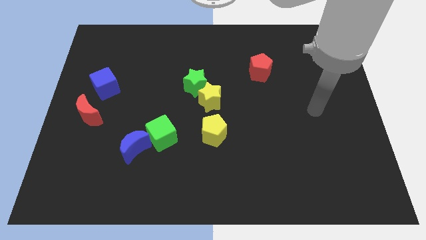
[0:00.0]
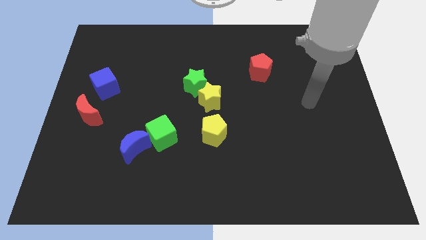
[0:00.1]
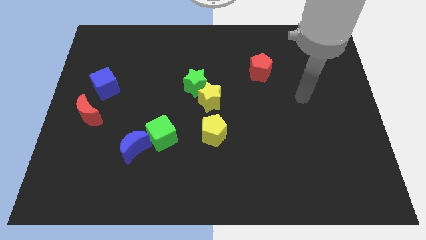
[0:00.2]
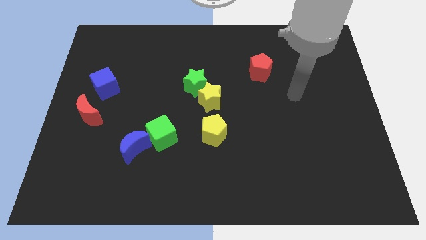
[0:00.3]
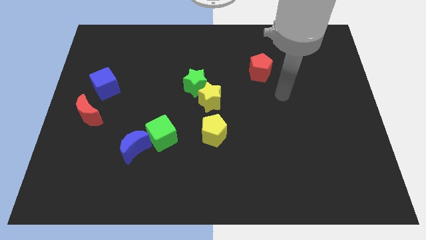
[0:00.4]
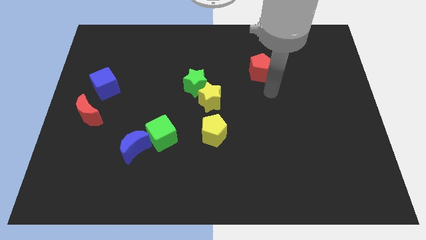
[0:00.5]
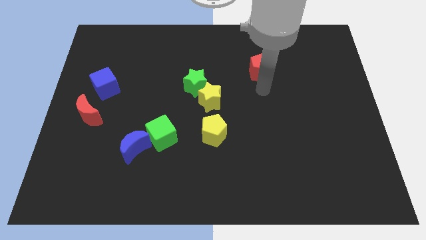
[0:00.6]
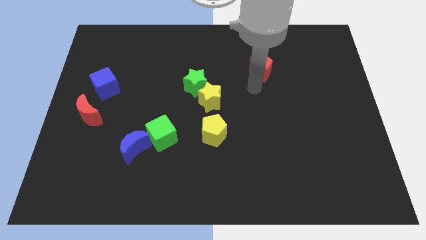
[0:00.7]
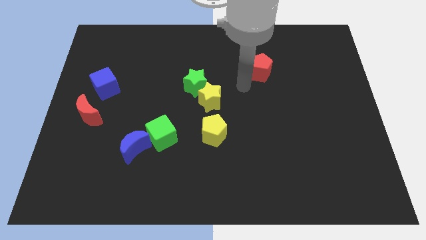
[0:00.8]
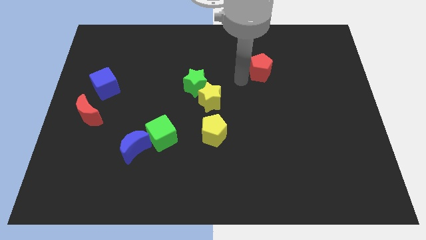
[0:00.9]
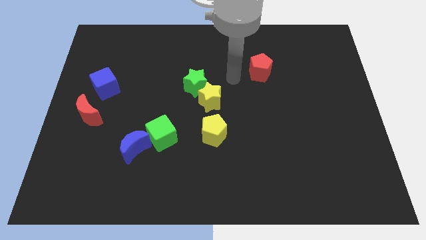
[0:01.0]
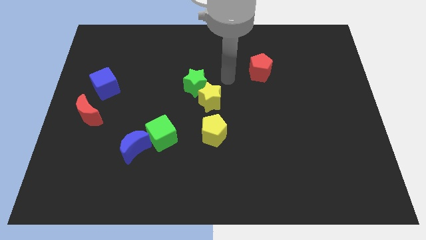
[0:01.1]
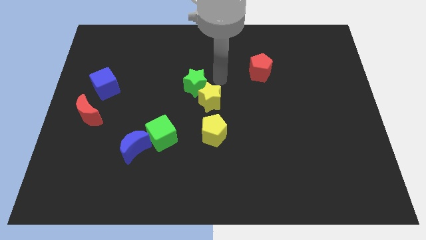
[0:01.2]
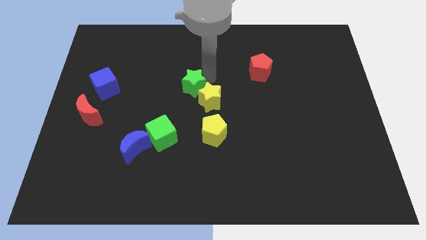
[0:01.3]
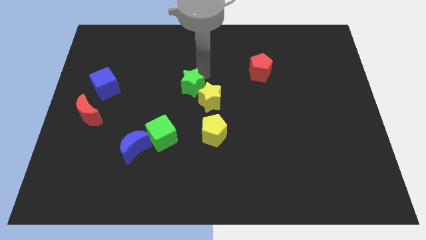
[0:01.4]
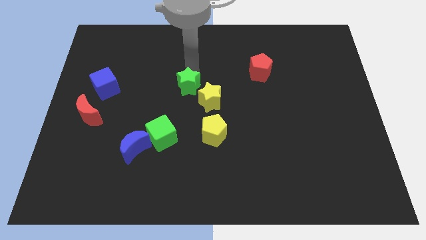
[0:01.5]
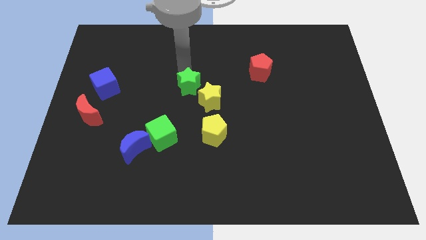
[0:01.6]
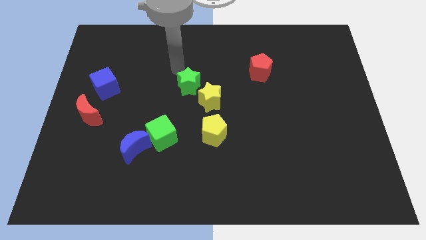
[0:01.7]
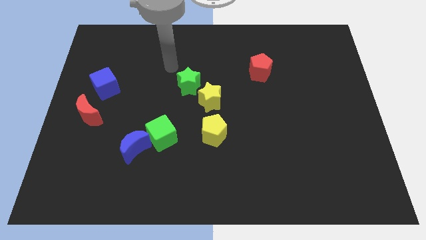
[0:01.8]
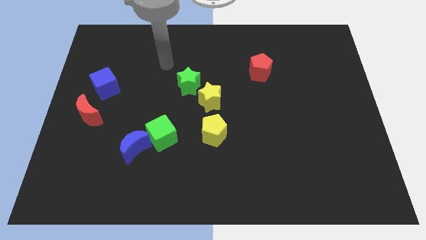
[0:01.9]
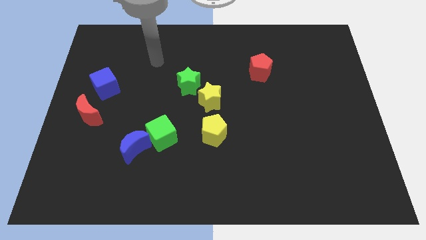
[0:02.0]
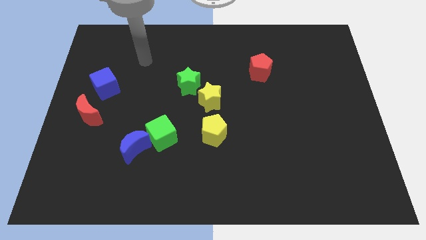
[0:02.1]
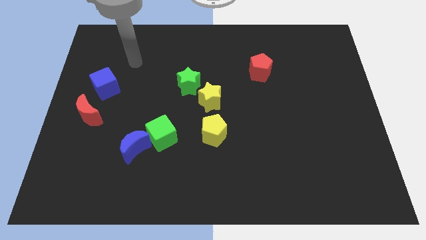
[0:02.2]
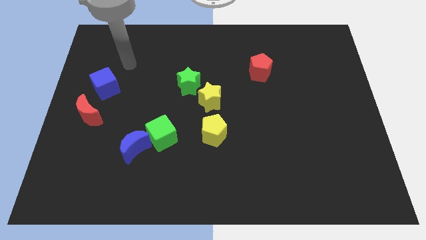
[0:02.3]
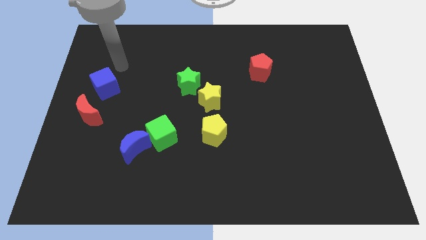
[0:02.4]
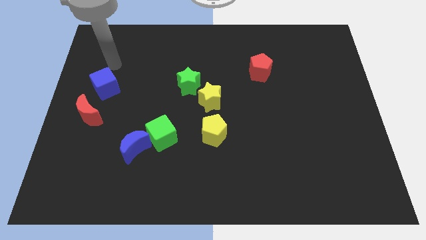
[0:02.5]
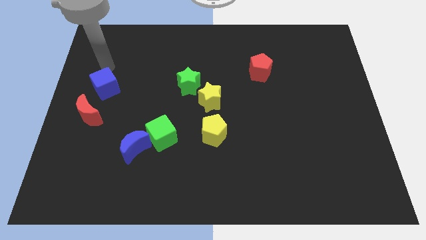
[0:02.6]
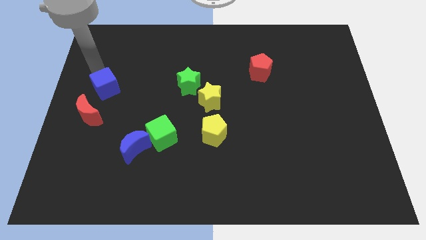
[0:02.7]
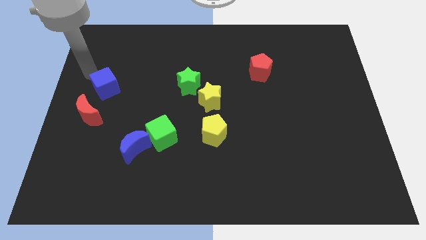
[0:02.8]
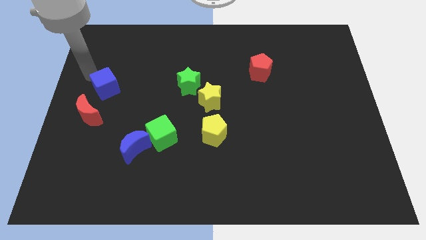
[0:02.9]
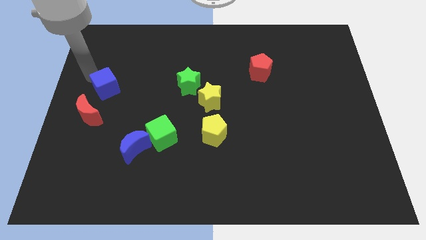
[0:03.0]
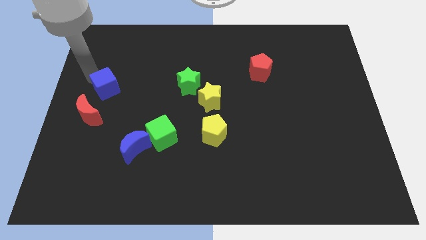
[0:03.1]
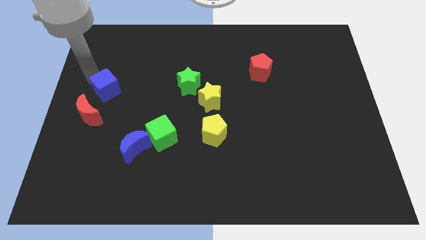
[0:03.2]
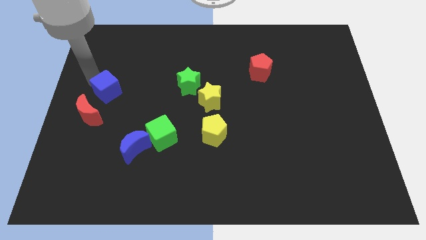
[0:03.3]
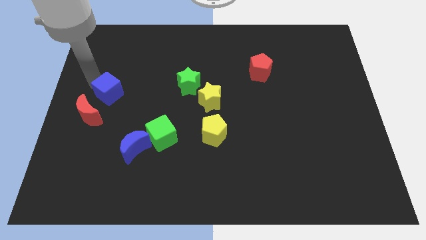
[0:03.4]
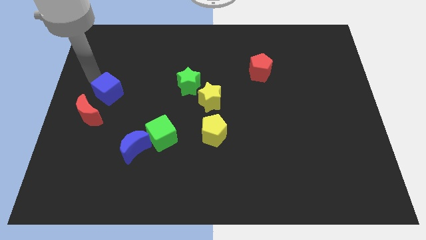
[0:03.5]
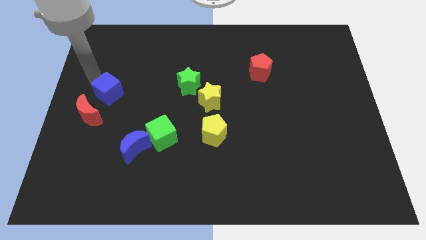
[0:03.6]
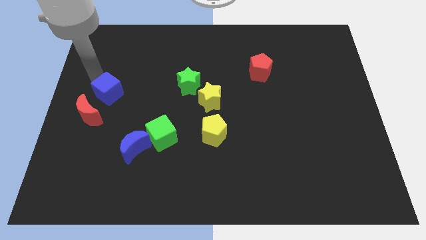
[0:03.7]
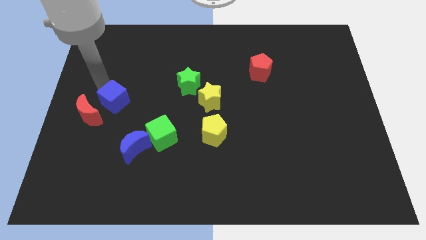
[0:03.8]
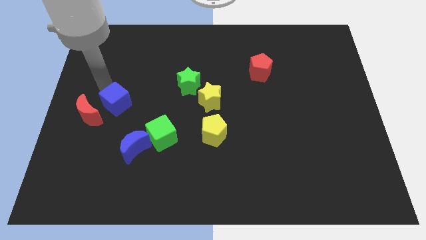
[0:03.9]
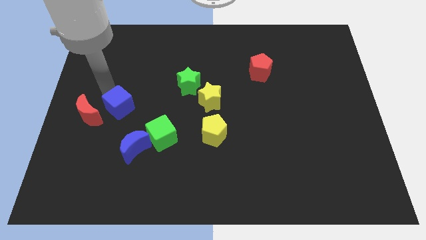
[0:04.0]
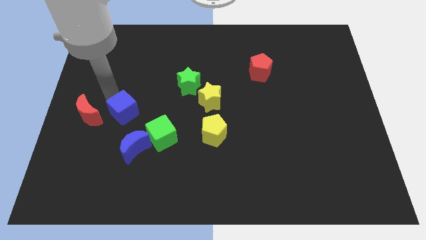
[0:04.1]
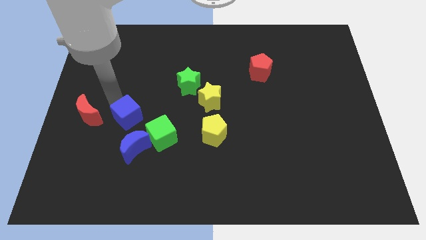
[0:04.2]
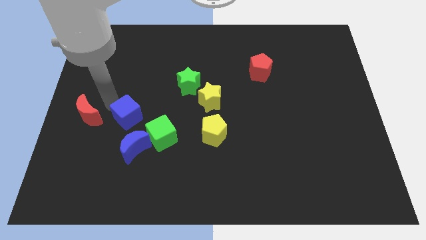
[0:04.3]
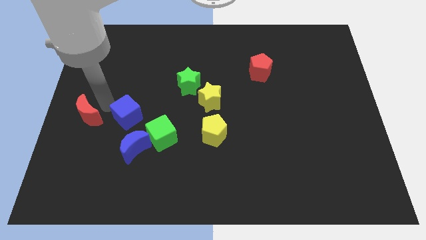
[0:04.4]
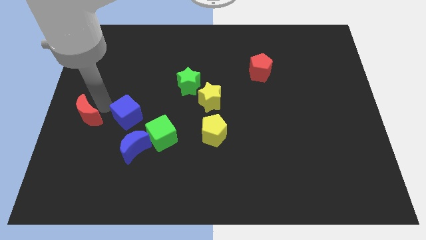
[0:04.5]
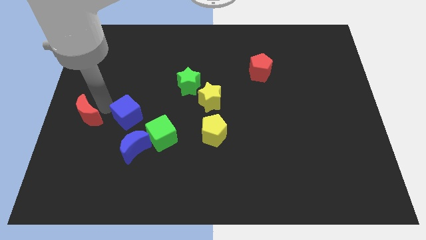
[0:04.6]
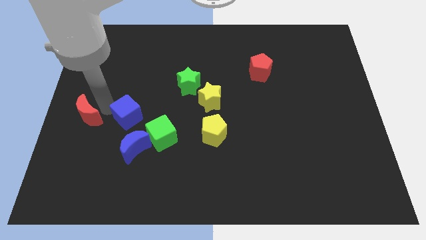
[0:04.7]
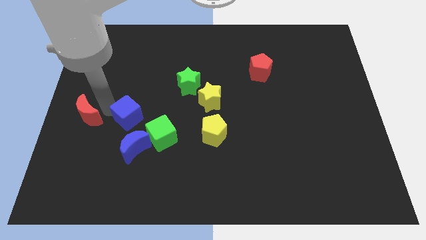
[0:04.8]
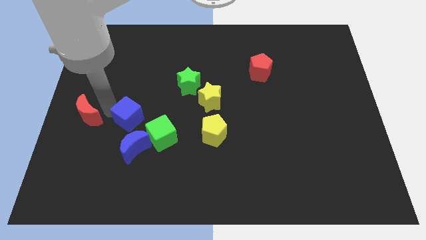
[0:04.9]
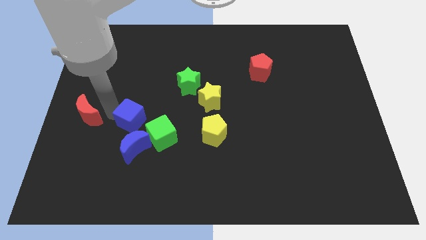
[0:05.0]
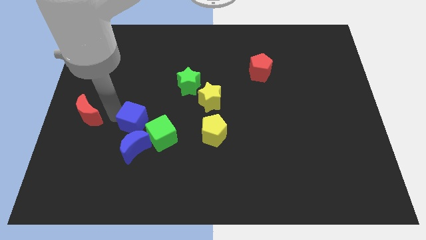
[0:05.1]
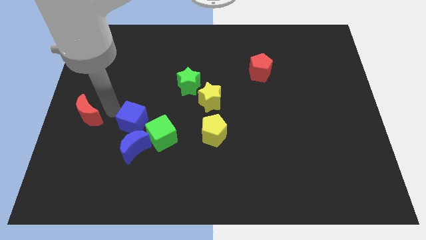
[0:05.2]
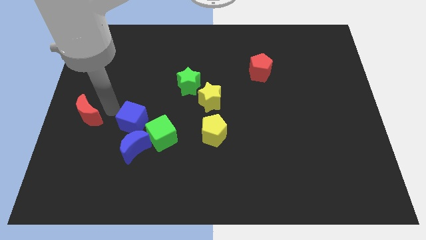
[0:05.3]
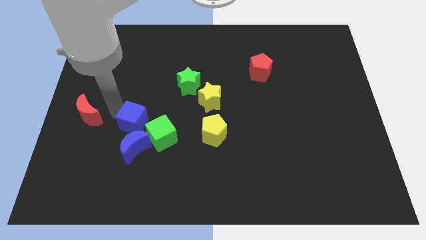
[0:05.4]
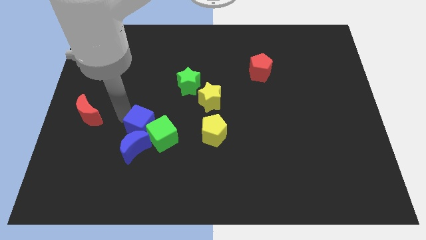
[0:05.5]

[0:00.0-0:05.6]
push the blue cube next to the green cube
